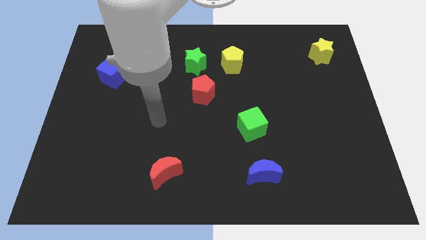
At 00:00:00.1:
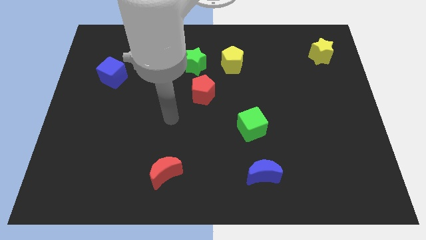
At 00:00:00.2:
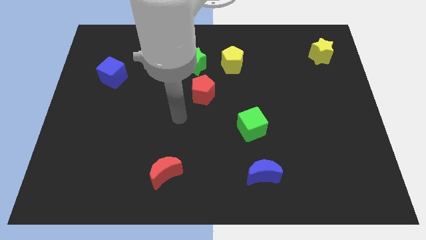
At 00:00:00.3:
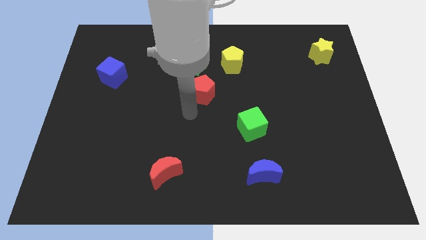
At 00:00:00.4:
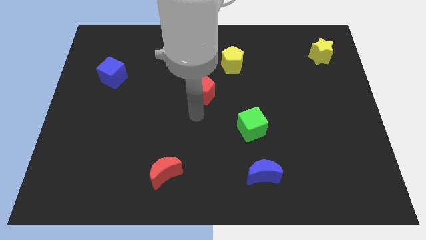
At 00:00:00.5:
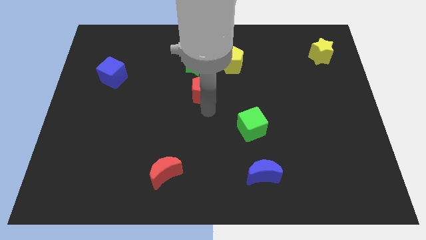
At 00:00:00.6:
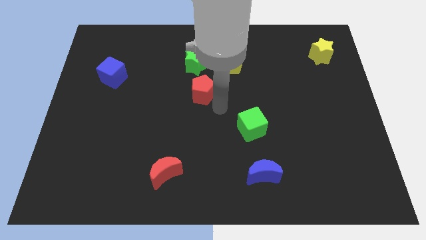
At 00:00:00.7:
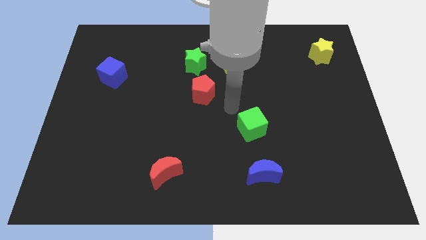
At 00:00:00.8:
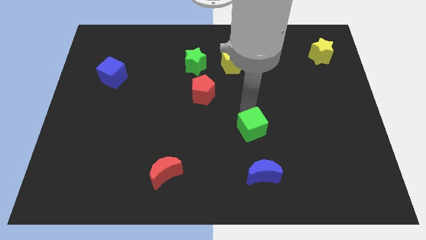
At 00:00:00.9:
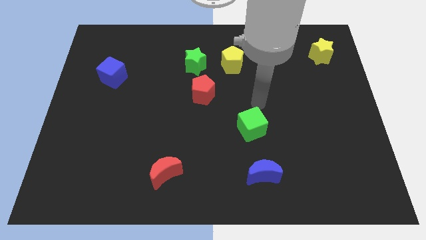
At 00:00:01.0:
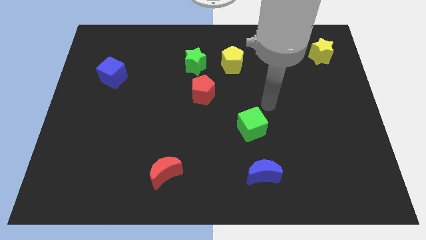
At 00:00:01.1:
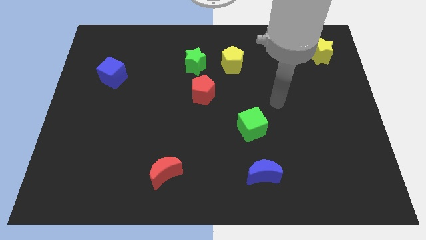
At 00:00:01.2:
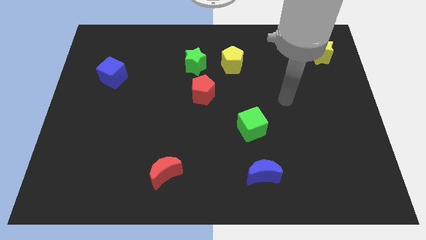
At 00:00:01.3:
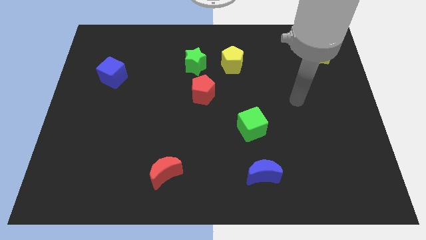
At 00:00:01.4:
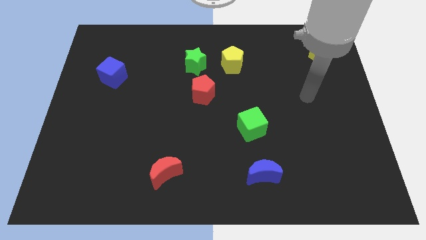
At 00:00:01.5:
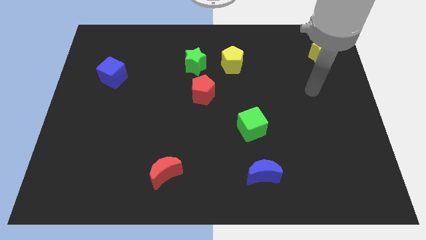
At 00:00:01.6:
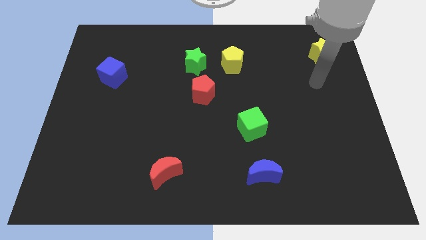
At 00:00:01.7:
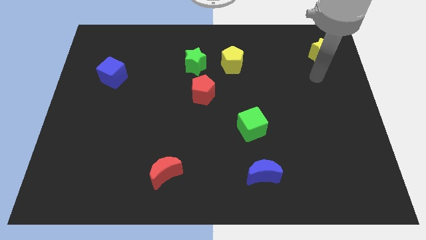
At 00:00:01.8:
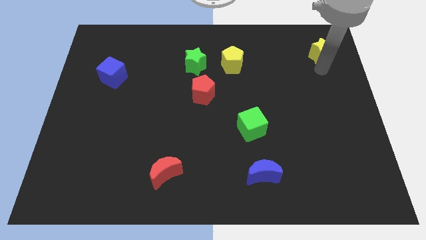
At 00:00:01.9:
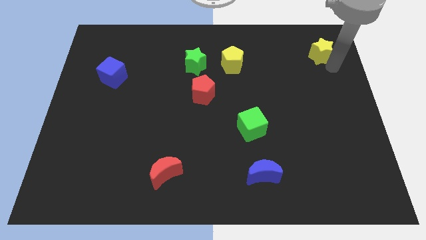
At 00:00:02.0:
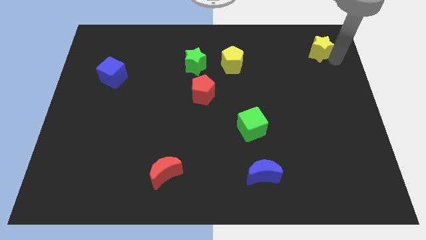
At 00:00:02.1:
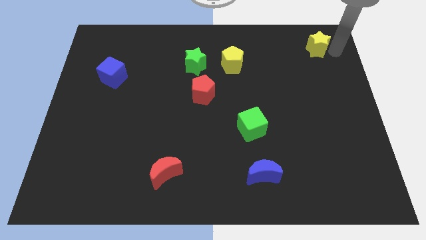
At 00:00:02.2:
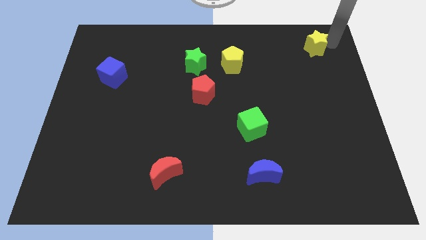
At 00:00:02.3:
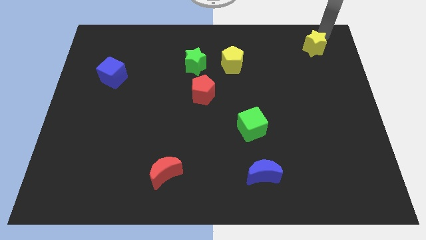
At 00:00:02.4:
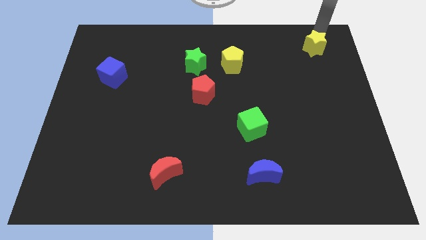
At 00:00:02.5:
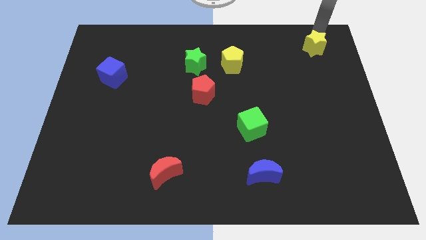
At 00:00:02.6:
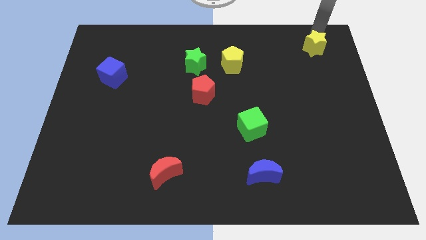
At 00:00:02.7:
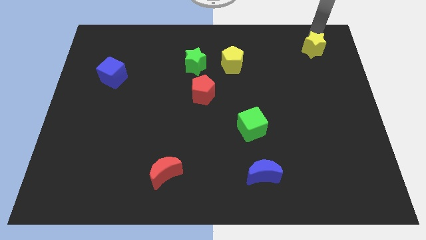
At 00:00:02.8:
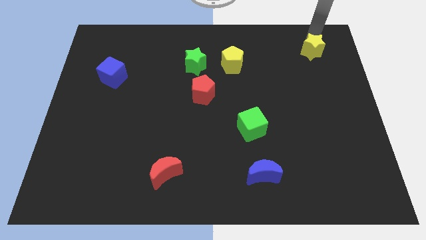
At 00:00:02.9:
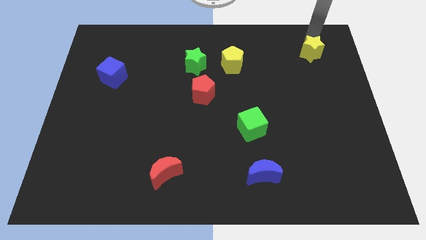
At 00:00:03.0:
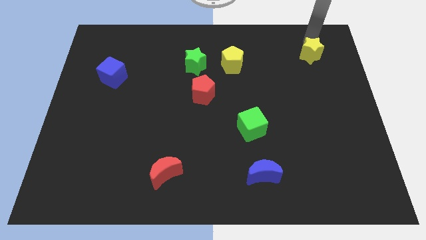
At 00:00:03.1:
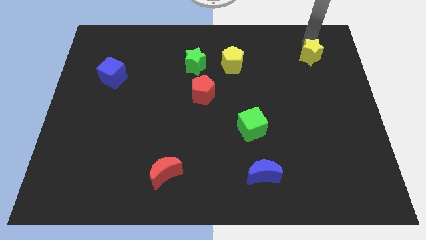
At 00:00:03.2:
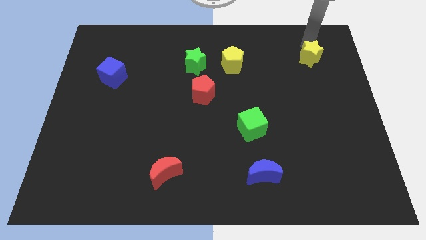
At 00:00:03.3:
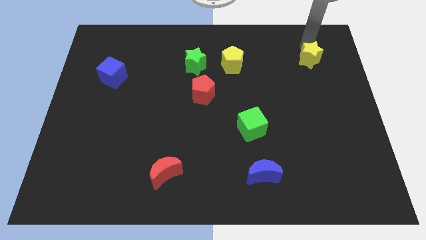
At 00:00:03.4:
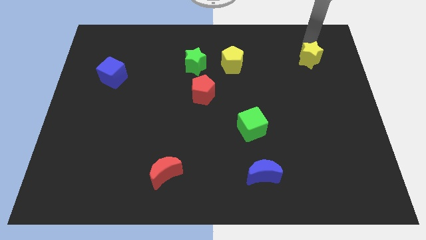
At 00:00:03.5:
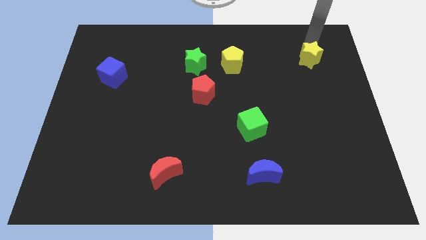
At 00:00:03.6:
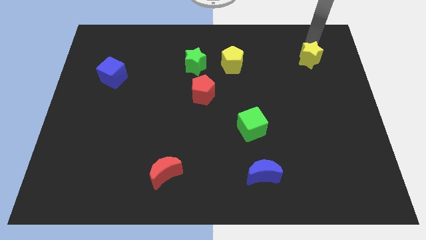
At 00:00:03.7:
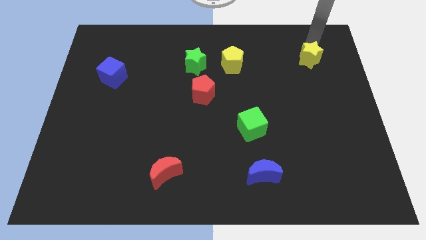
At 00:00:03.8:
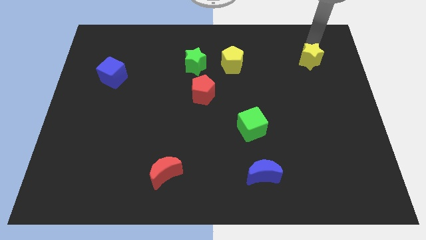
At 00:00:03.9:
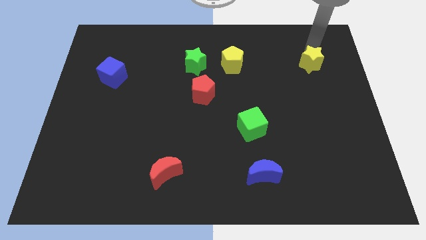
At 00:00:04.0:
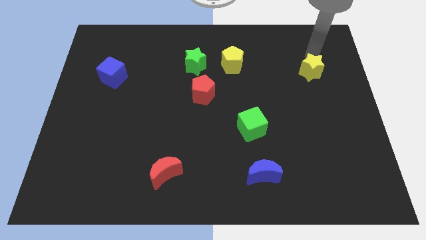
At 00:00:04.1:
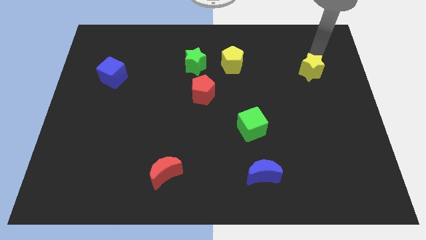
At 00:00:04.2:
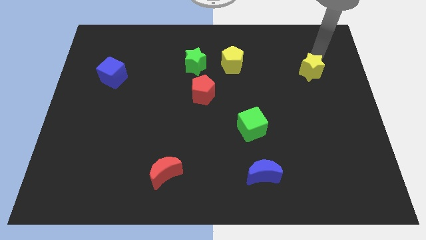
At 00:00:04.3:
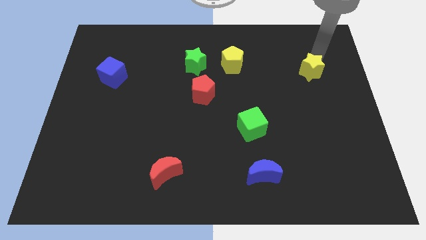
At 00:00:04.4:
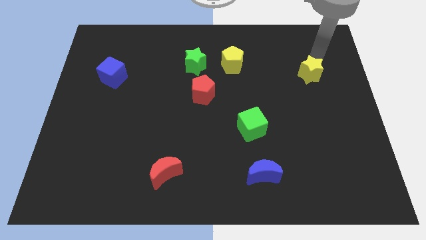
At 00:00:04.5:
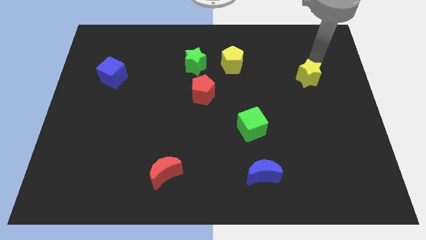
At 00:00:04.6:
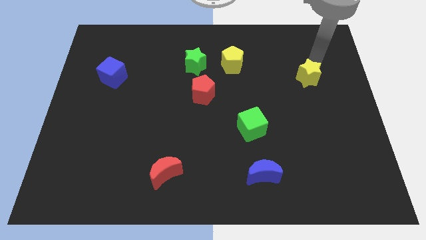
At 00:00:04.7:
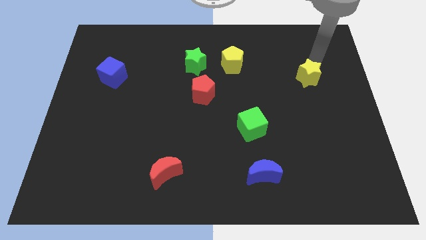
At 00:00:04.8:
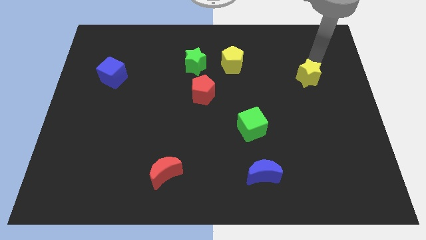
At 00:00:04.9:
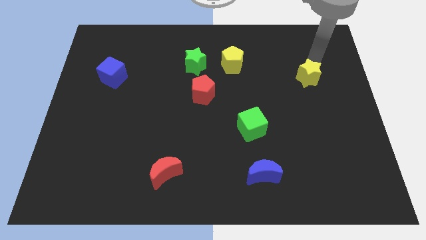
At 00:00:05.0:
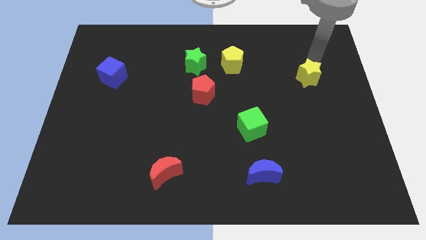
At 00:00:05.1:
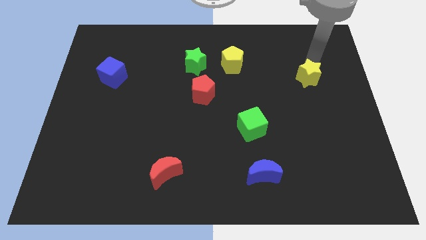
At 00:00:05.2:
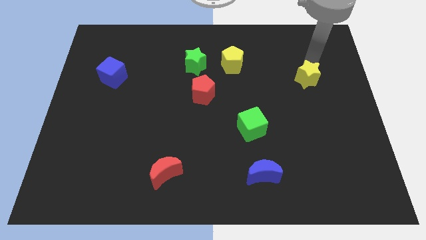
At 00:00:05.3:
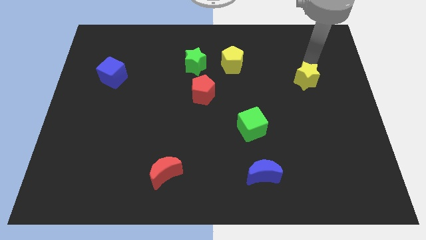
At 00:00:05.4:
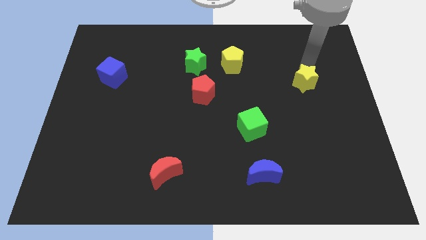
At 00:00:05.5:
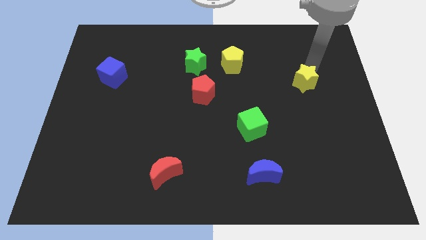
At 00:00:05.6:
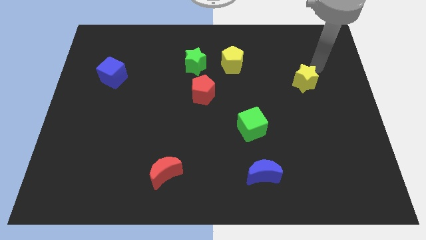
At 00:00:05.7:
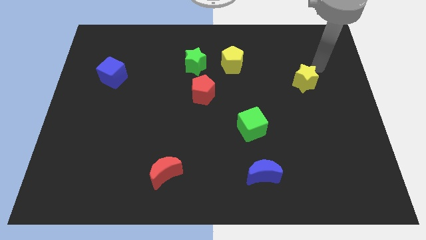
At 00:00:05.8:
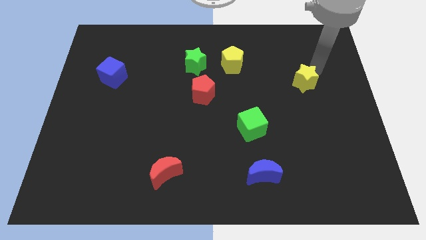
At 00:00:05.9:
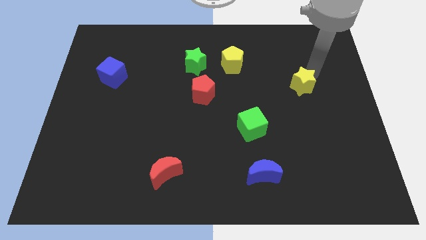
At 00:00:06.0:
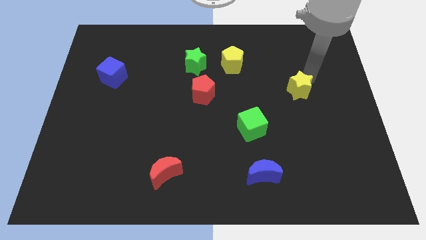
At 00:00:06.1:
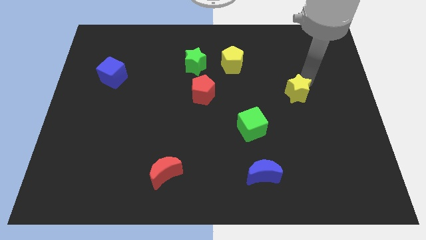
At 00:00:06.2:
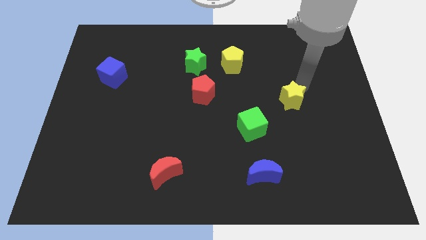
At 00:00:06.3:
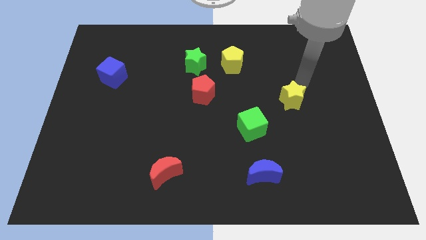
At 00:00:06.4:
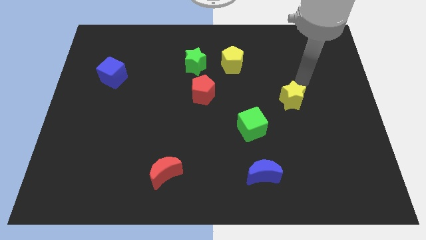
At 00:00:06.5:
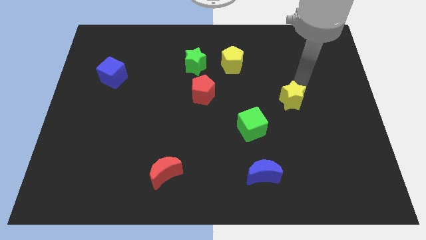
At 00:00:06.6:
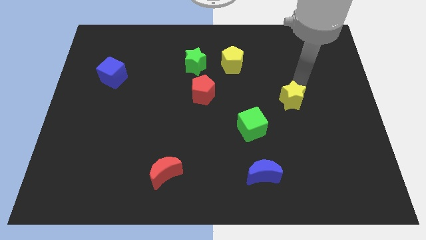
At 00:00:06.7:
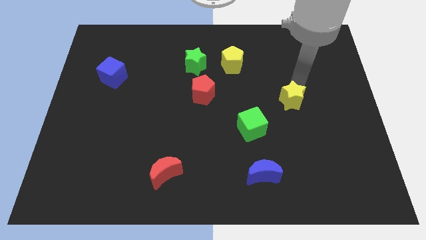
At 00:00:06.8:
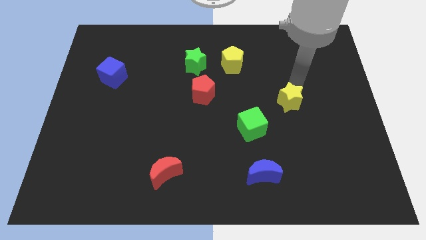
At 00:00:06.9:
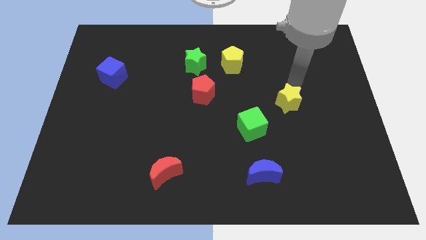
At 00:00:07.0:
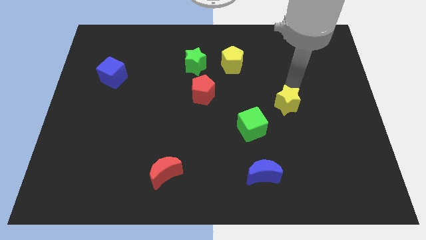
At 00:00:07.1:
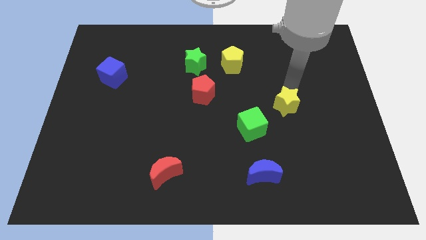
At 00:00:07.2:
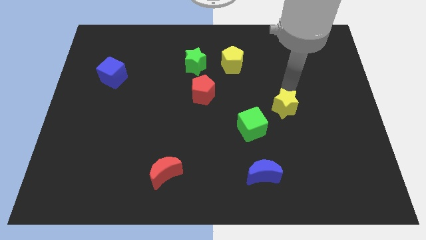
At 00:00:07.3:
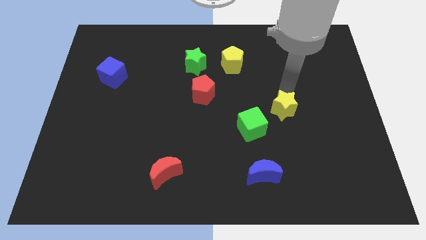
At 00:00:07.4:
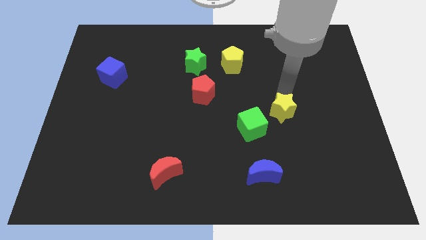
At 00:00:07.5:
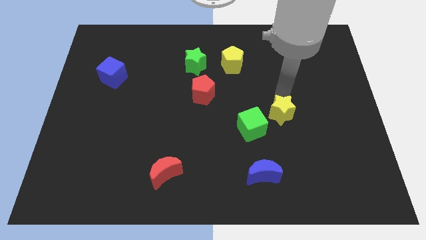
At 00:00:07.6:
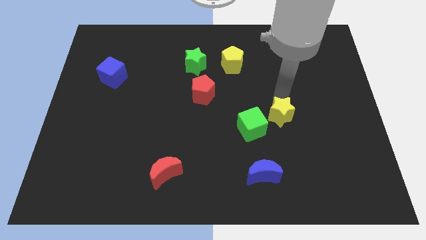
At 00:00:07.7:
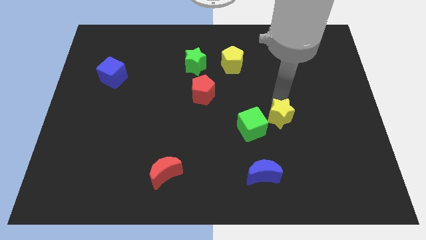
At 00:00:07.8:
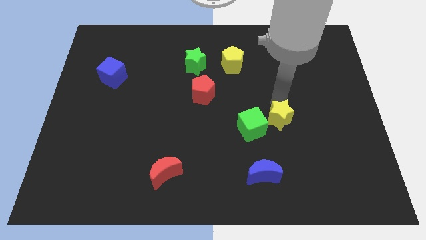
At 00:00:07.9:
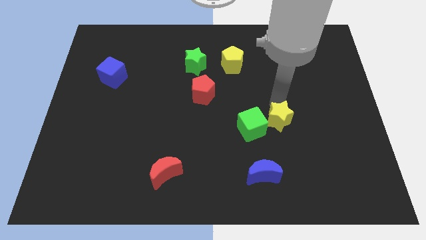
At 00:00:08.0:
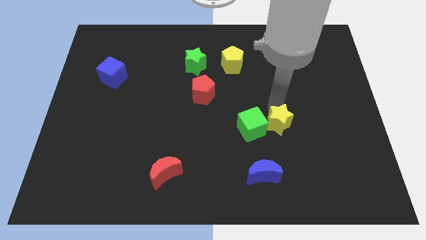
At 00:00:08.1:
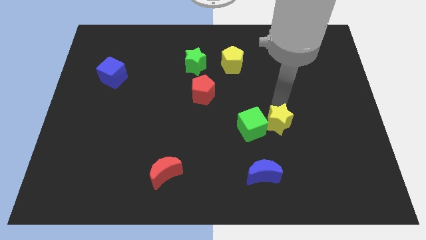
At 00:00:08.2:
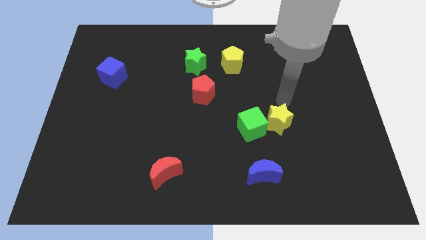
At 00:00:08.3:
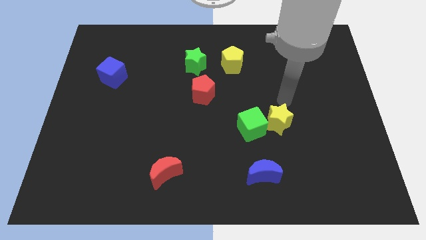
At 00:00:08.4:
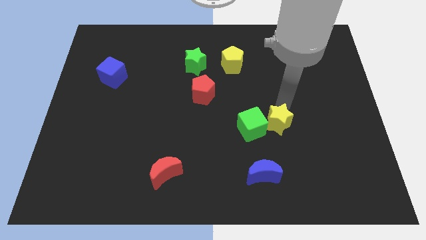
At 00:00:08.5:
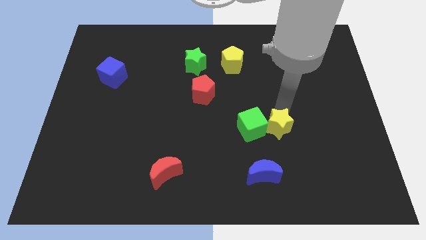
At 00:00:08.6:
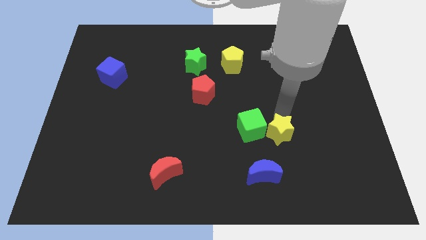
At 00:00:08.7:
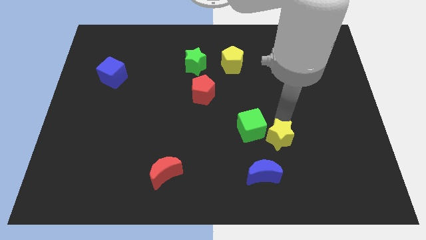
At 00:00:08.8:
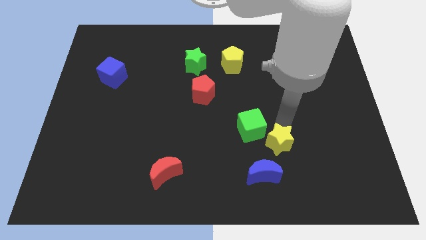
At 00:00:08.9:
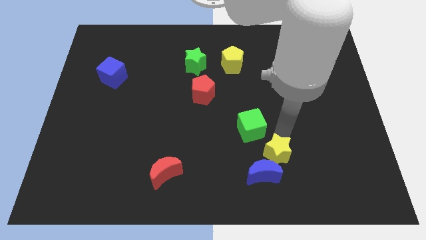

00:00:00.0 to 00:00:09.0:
put the yellow star close to the blue moon
